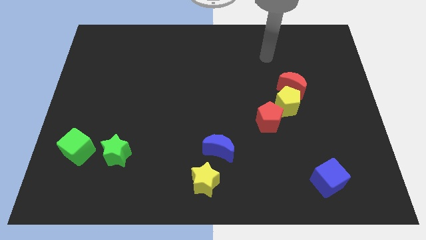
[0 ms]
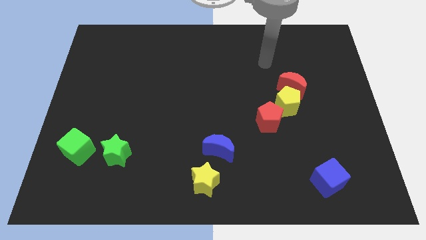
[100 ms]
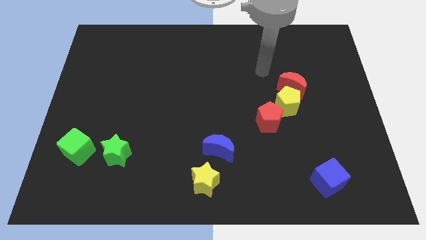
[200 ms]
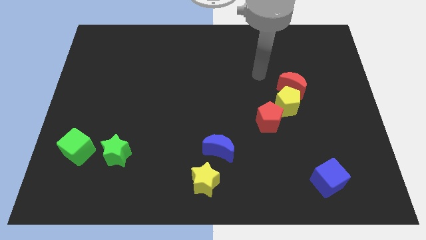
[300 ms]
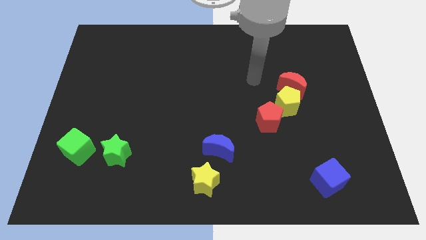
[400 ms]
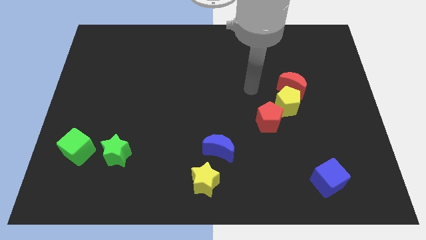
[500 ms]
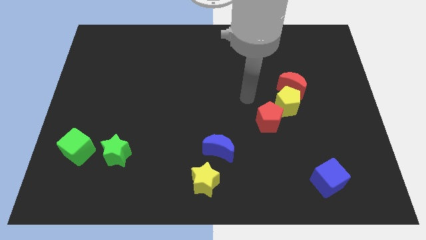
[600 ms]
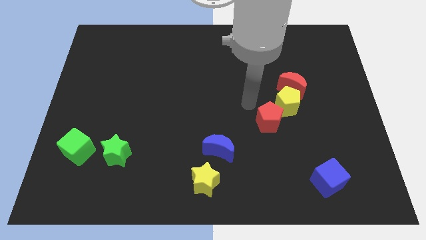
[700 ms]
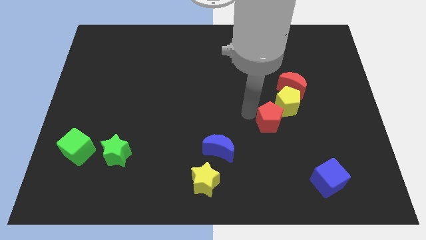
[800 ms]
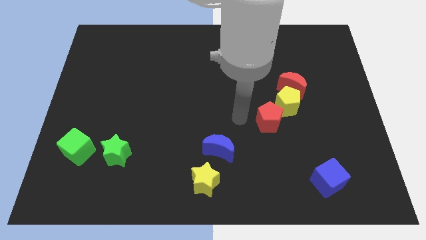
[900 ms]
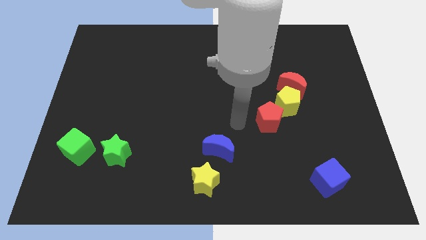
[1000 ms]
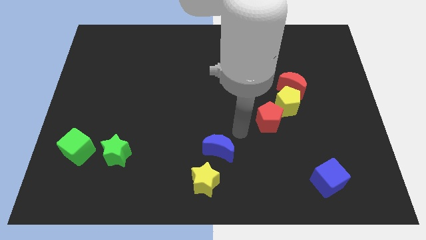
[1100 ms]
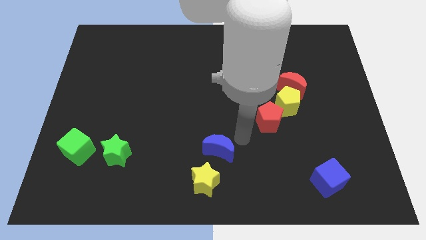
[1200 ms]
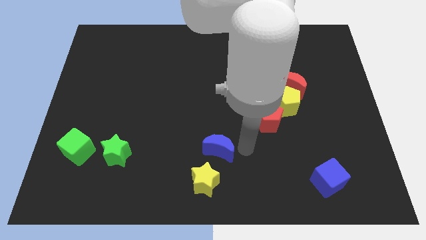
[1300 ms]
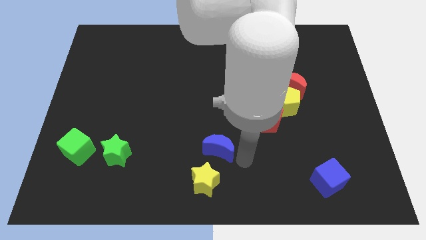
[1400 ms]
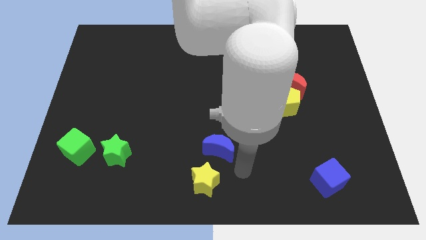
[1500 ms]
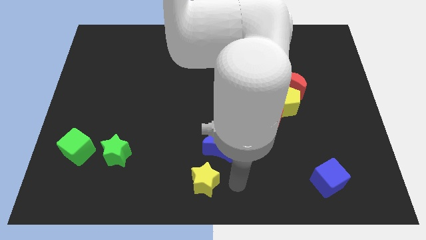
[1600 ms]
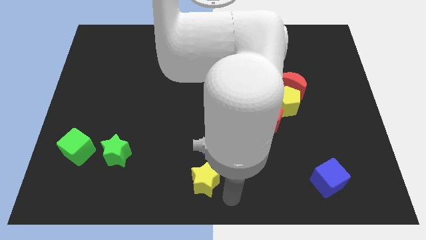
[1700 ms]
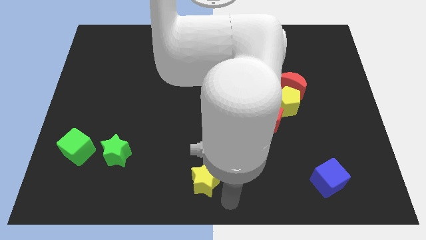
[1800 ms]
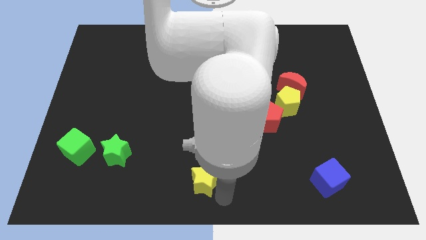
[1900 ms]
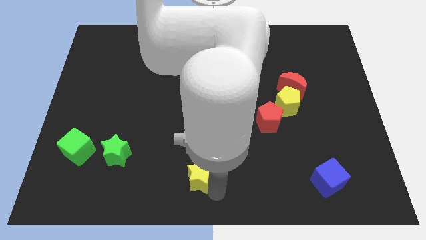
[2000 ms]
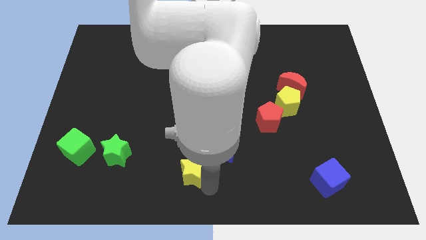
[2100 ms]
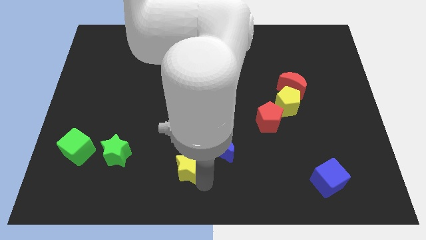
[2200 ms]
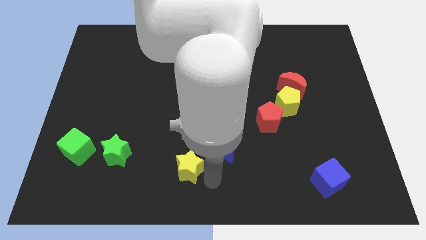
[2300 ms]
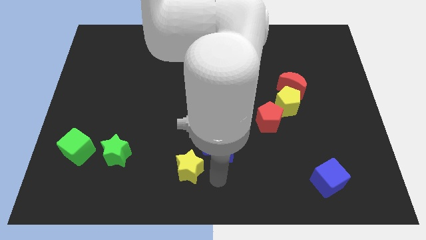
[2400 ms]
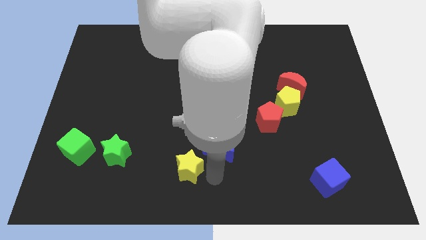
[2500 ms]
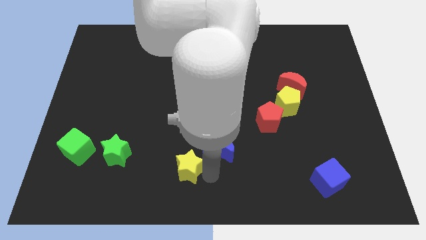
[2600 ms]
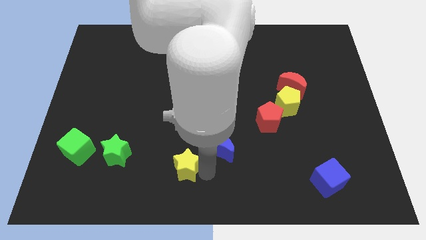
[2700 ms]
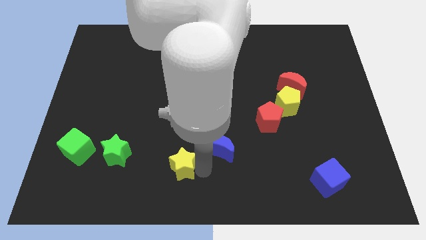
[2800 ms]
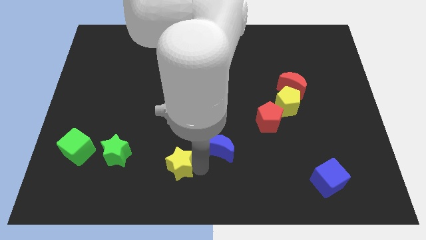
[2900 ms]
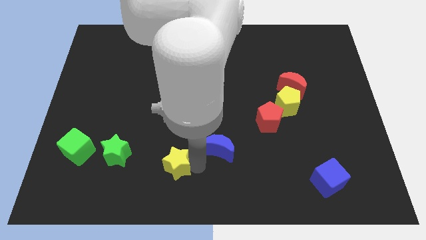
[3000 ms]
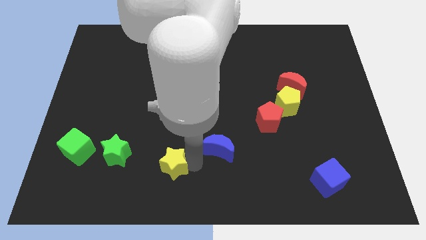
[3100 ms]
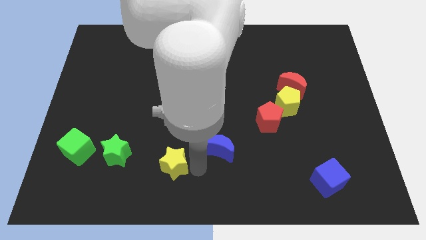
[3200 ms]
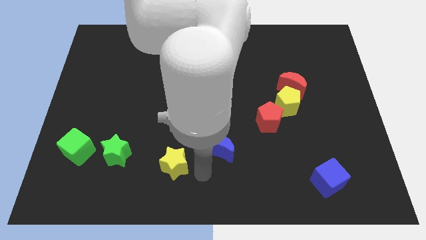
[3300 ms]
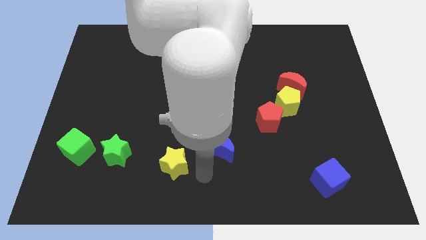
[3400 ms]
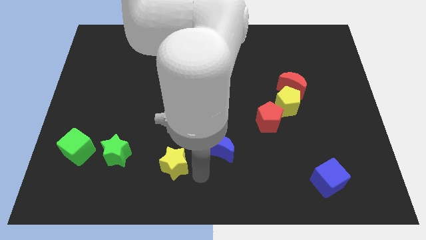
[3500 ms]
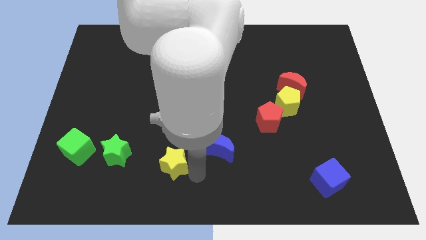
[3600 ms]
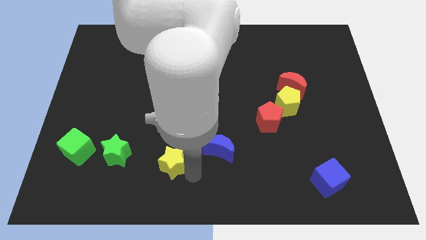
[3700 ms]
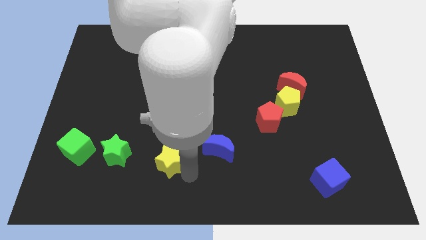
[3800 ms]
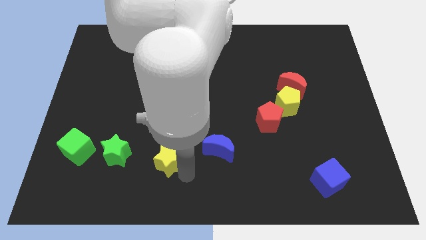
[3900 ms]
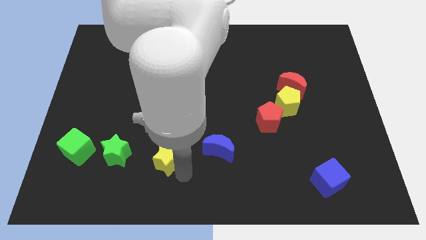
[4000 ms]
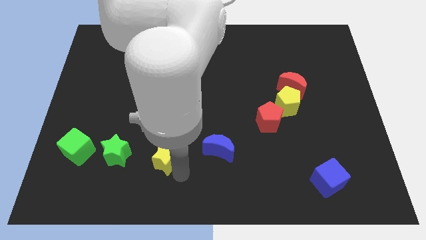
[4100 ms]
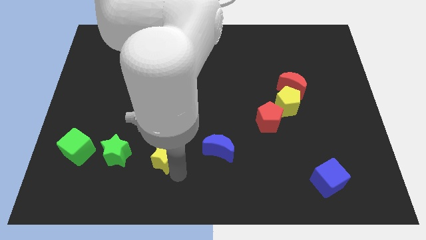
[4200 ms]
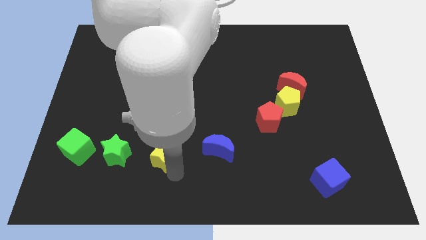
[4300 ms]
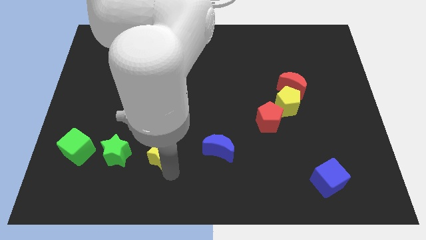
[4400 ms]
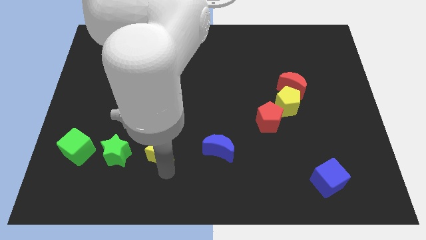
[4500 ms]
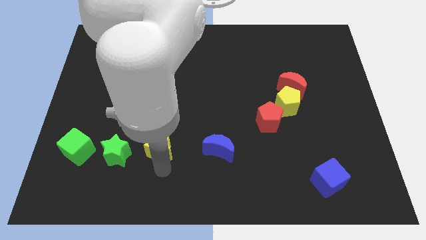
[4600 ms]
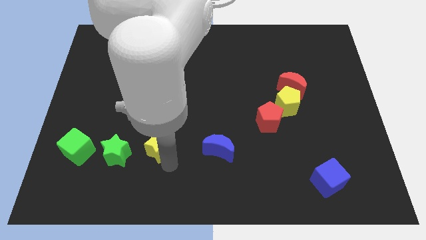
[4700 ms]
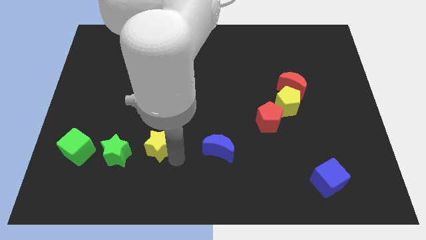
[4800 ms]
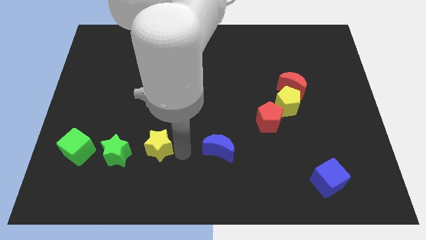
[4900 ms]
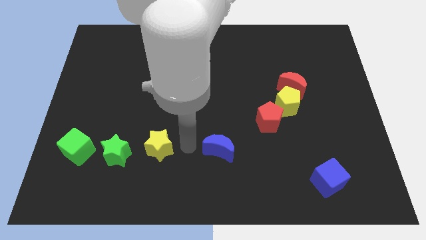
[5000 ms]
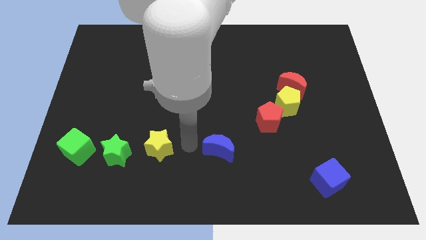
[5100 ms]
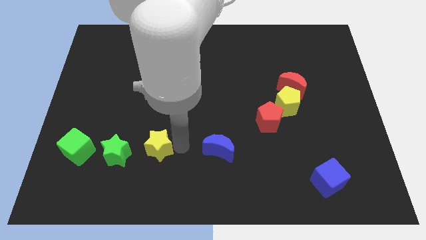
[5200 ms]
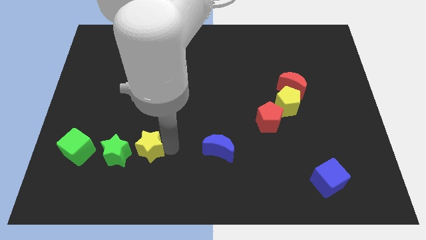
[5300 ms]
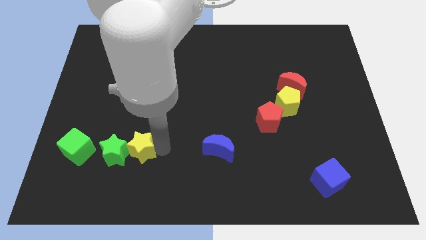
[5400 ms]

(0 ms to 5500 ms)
slide the yellow star towards the green star

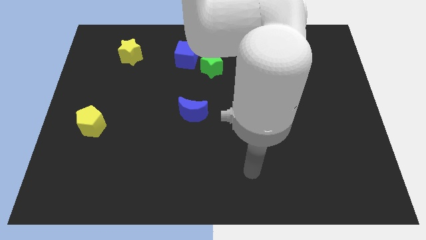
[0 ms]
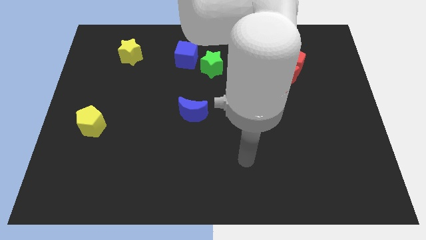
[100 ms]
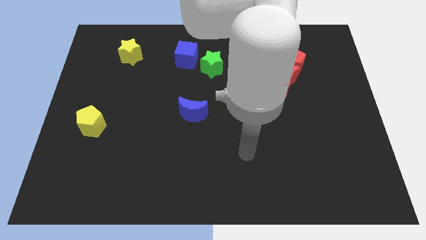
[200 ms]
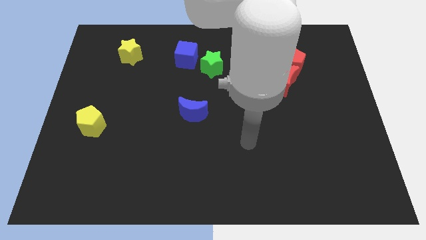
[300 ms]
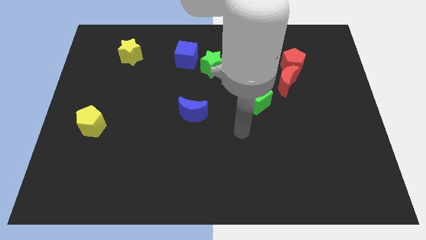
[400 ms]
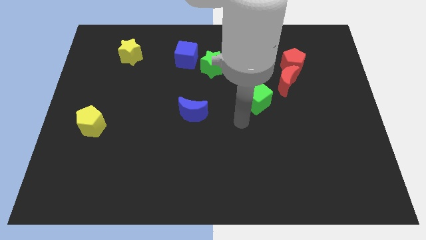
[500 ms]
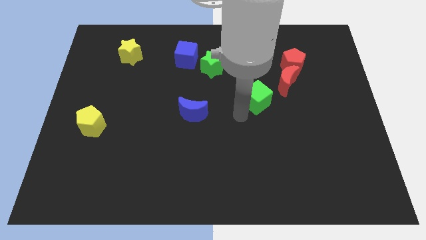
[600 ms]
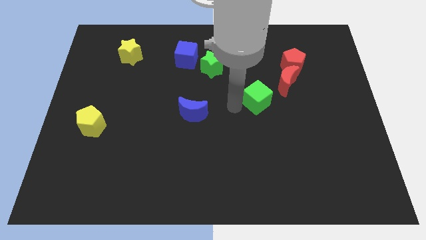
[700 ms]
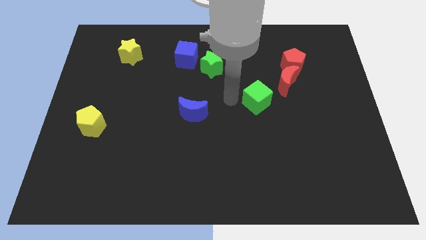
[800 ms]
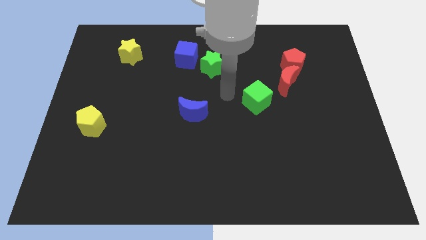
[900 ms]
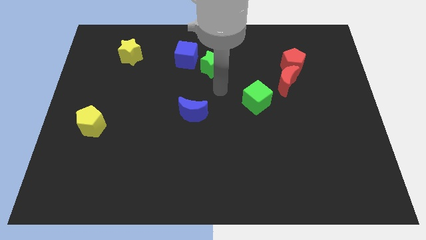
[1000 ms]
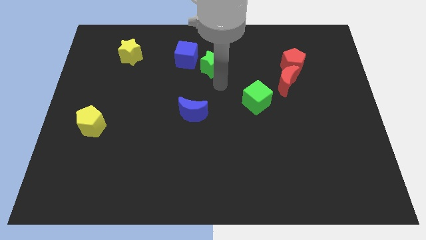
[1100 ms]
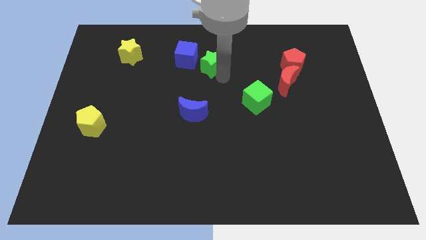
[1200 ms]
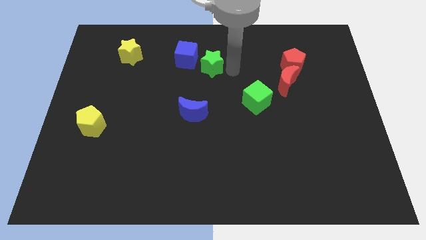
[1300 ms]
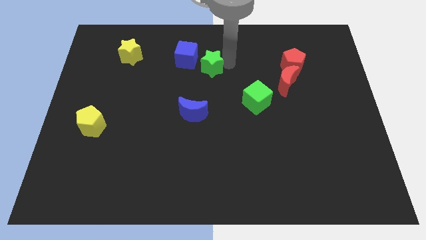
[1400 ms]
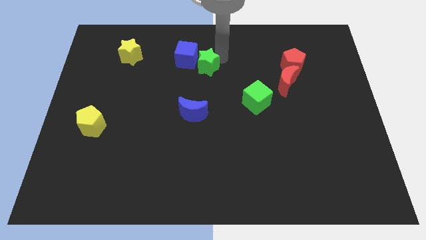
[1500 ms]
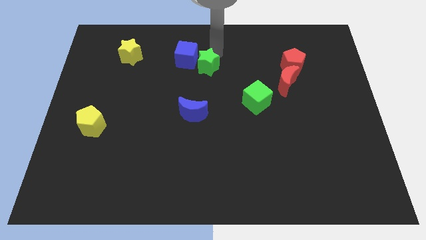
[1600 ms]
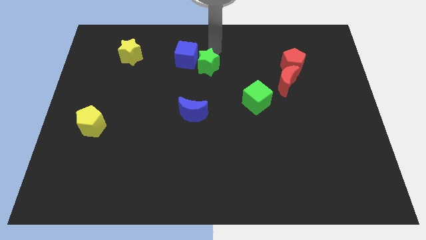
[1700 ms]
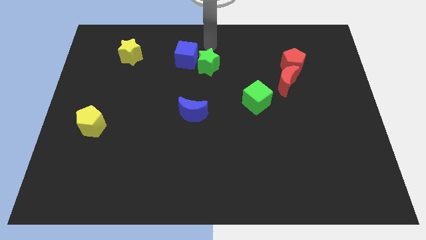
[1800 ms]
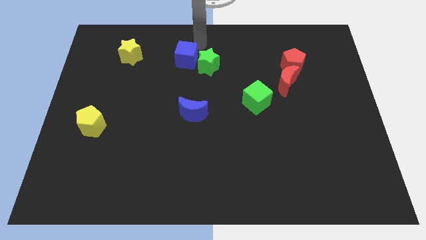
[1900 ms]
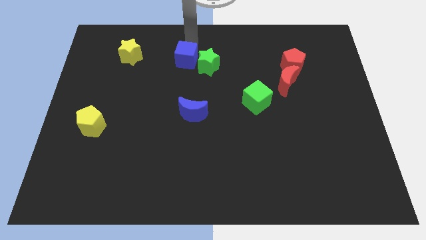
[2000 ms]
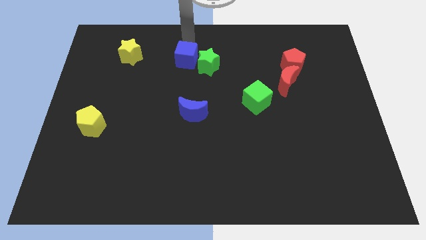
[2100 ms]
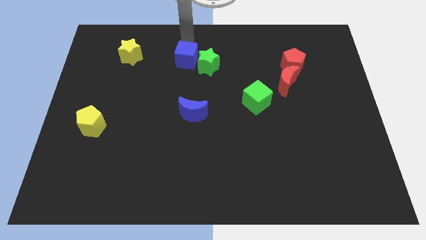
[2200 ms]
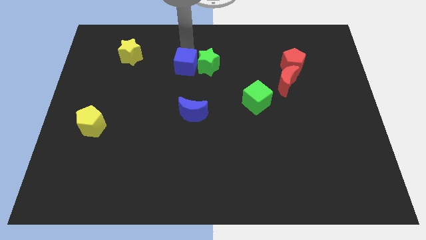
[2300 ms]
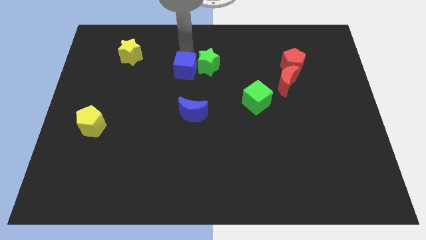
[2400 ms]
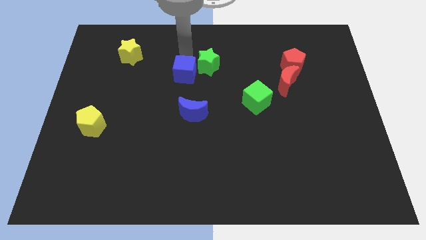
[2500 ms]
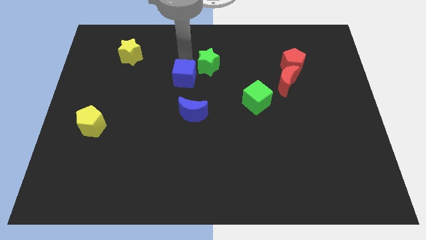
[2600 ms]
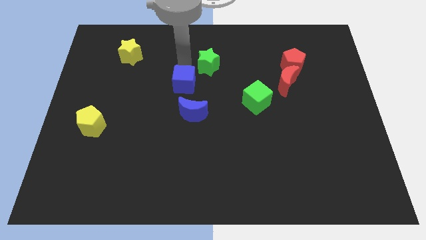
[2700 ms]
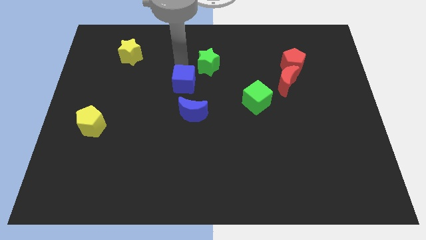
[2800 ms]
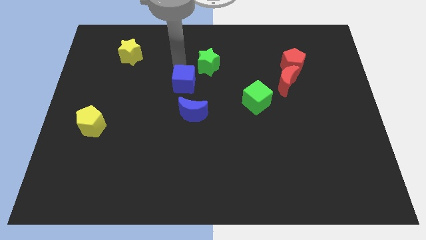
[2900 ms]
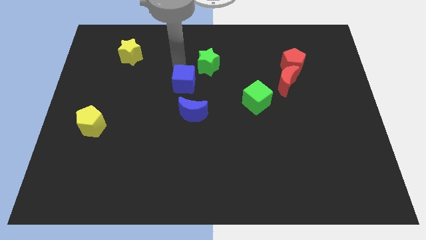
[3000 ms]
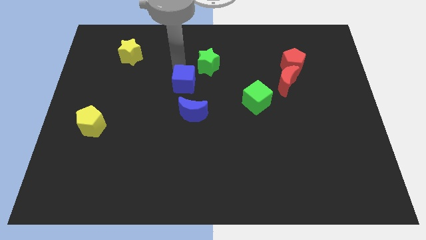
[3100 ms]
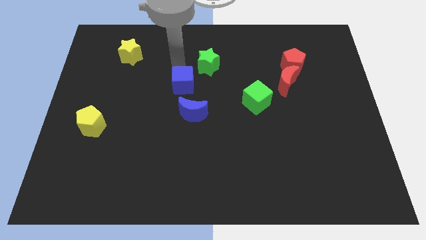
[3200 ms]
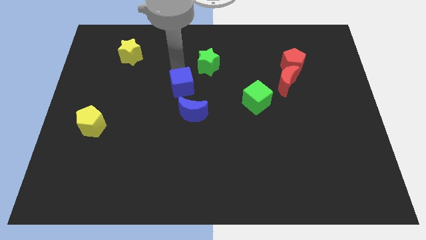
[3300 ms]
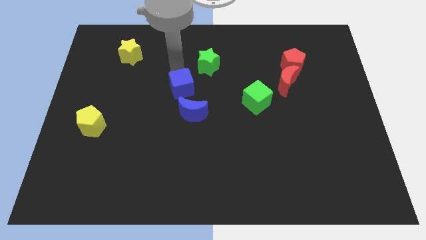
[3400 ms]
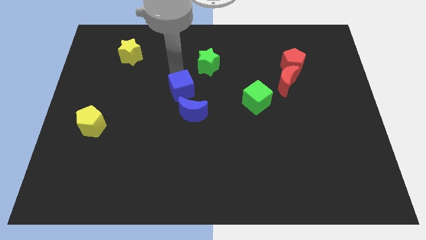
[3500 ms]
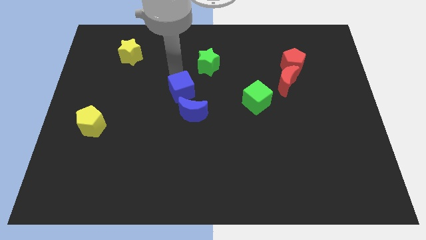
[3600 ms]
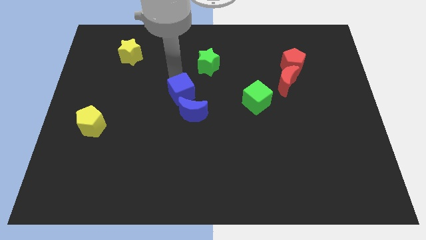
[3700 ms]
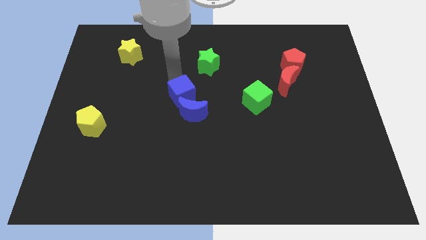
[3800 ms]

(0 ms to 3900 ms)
put the blue cube next to the blue moon
